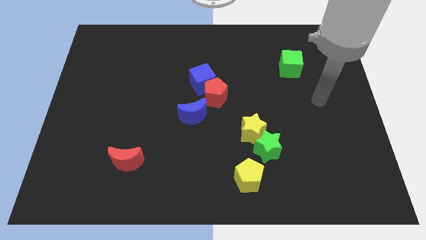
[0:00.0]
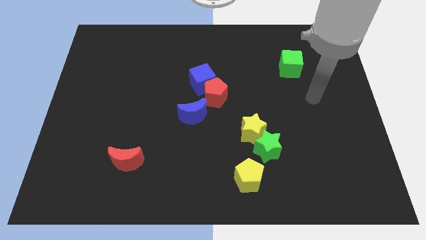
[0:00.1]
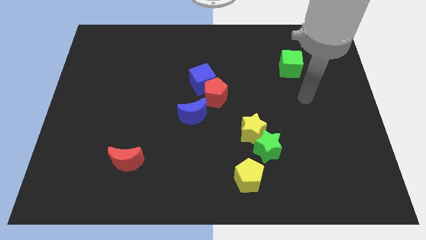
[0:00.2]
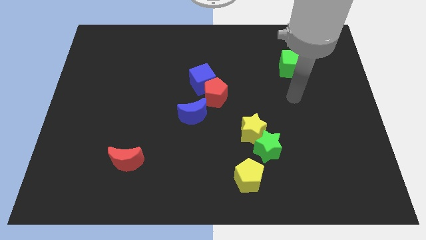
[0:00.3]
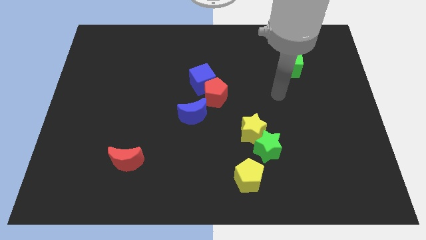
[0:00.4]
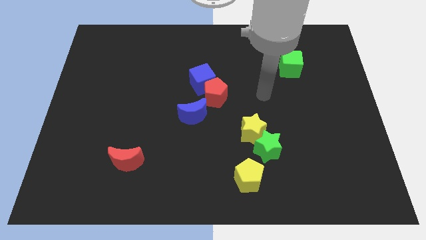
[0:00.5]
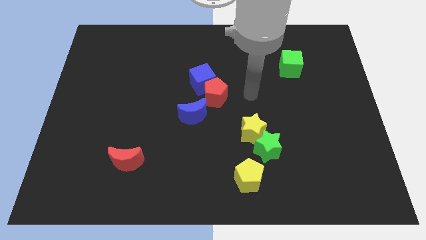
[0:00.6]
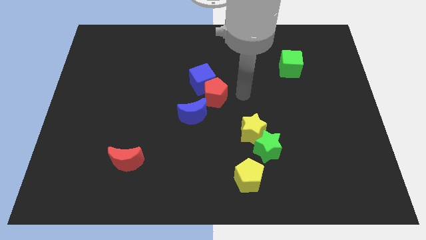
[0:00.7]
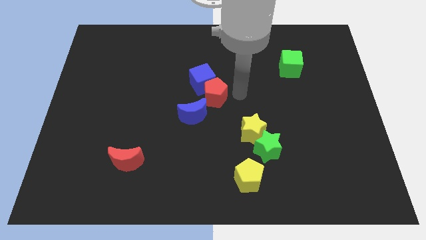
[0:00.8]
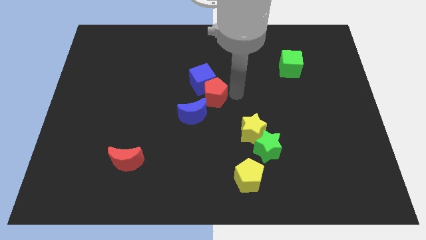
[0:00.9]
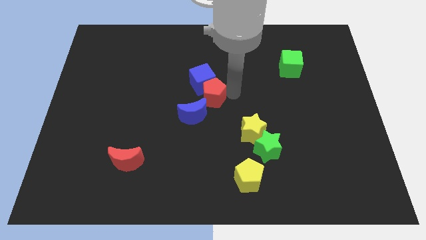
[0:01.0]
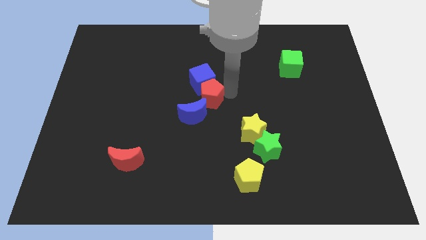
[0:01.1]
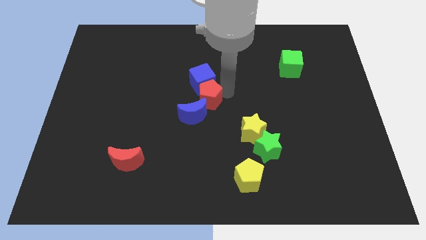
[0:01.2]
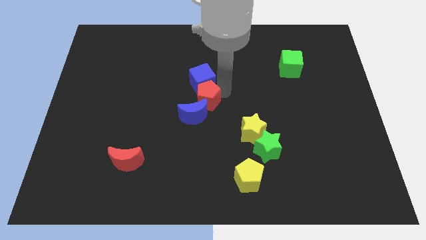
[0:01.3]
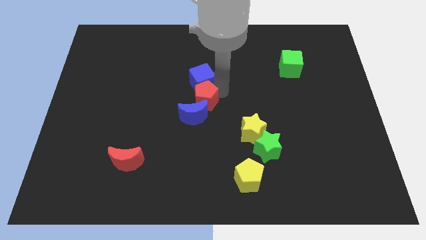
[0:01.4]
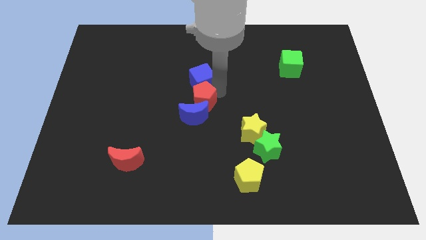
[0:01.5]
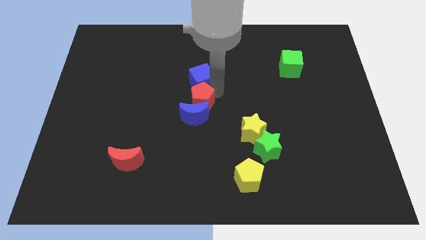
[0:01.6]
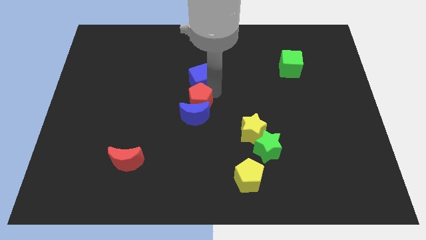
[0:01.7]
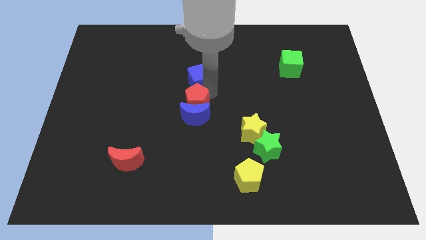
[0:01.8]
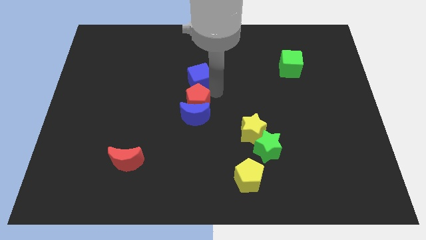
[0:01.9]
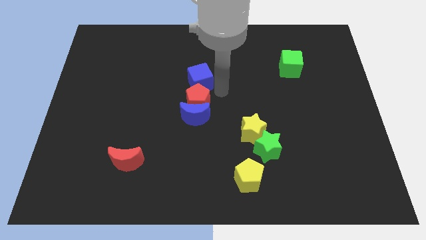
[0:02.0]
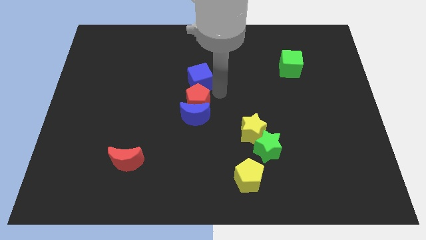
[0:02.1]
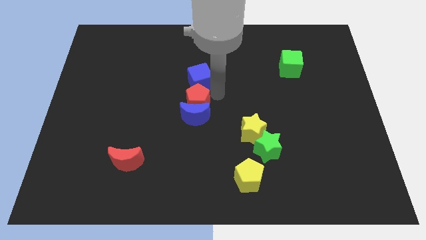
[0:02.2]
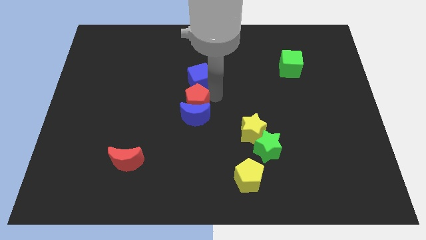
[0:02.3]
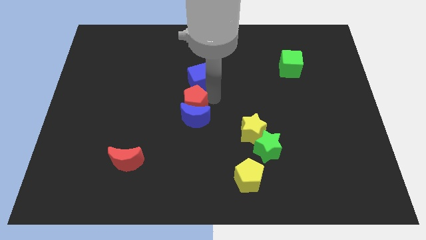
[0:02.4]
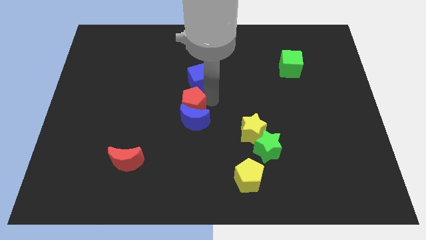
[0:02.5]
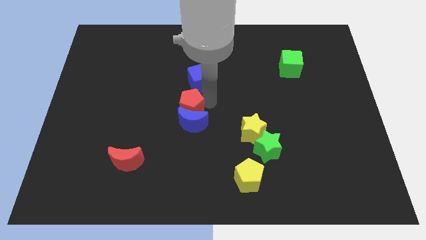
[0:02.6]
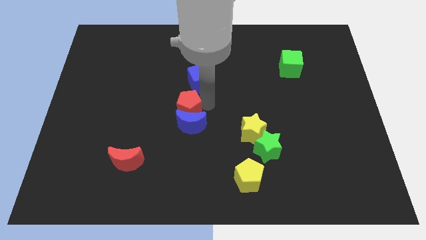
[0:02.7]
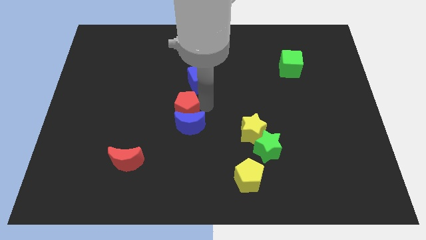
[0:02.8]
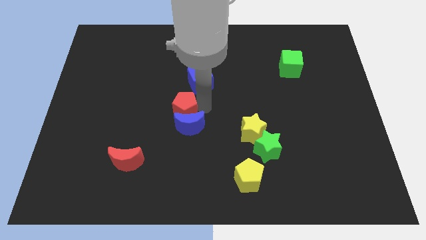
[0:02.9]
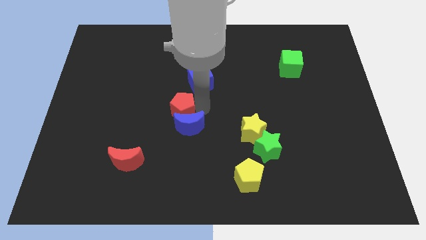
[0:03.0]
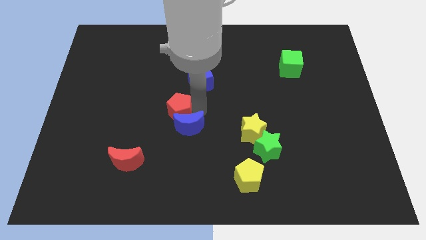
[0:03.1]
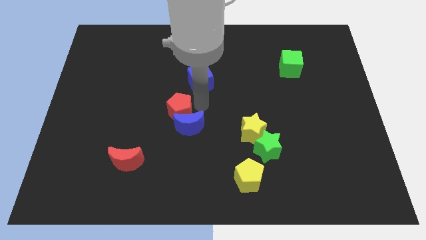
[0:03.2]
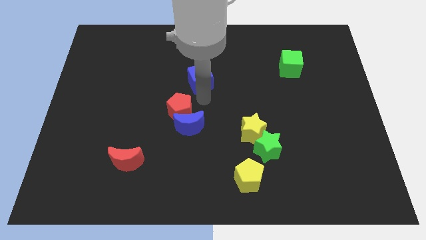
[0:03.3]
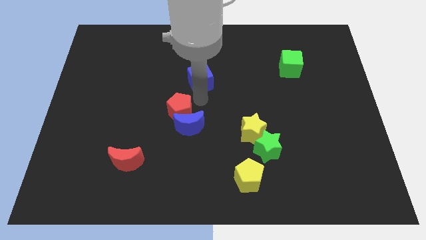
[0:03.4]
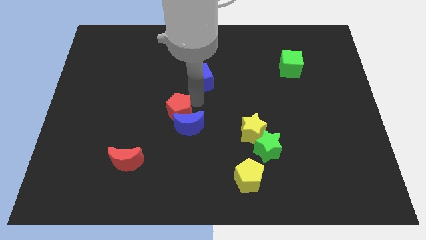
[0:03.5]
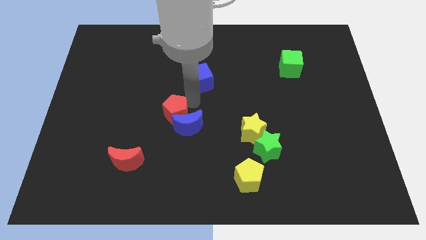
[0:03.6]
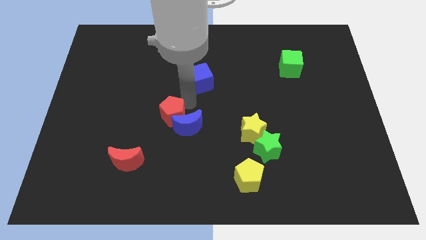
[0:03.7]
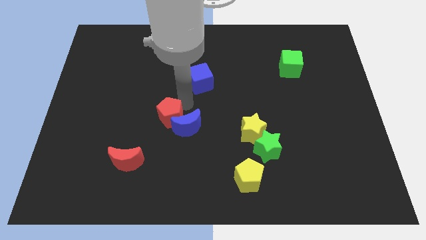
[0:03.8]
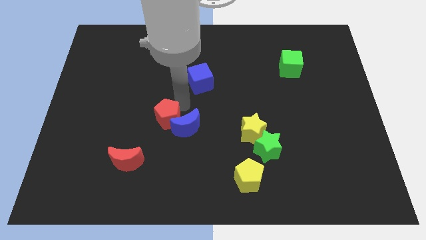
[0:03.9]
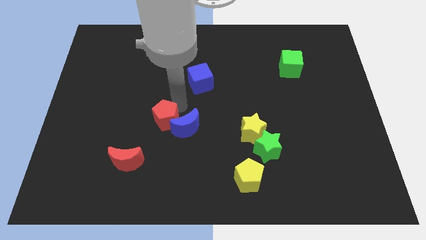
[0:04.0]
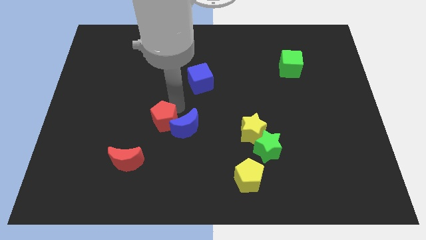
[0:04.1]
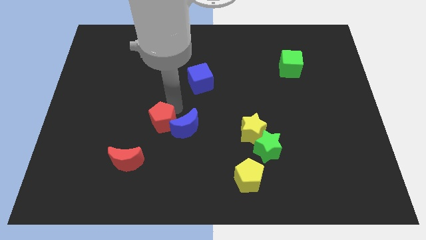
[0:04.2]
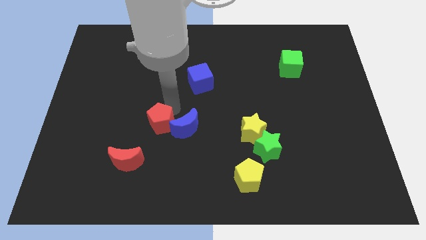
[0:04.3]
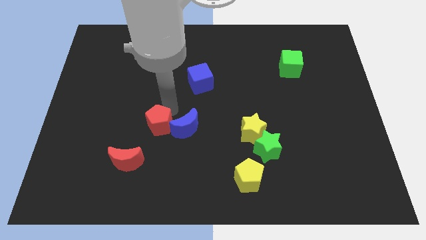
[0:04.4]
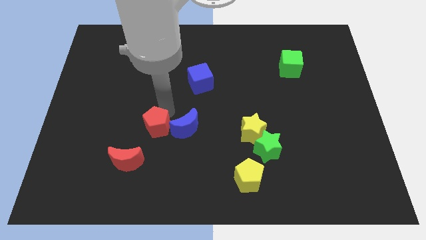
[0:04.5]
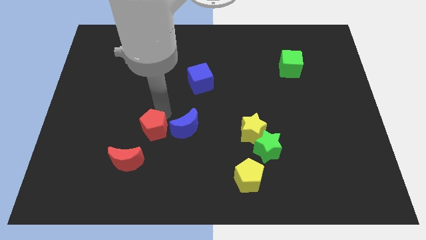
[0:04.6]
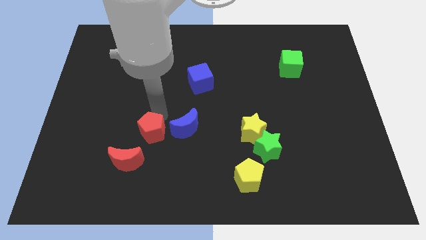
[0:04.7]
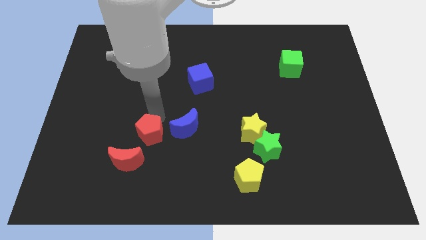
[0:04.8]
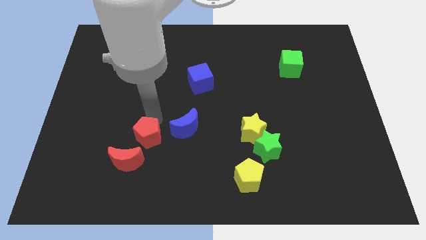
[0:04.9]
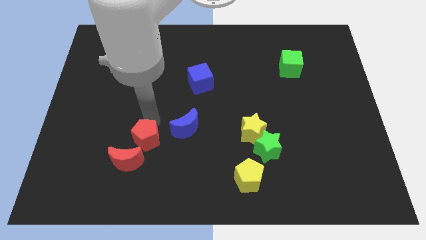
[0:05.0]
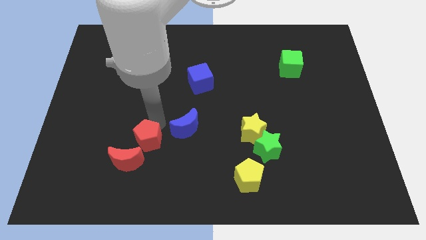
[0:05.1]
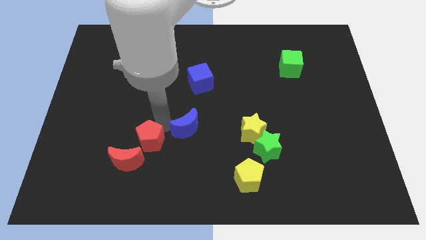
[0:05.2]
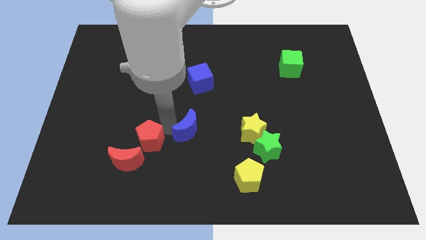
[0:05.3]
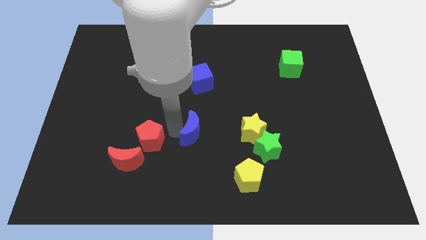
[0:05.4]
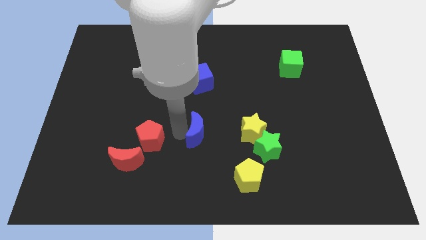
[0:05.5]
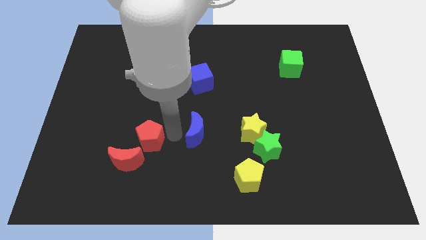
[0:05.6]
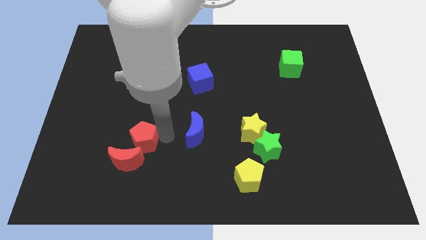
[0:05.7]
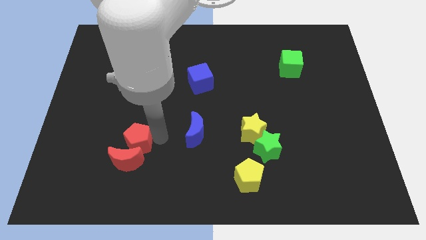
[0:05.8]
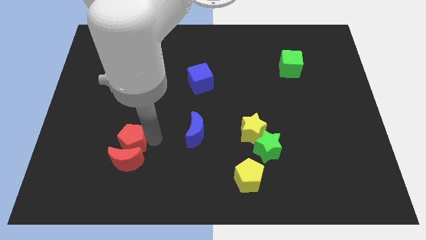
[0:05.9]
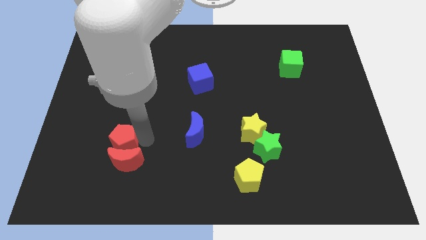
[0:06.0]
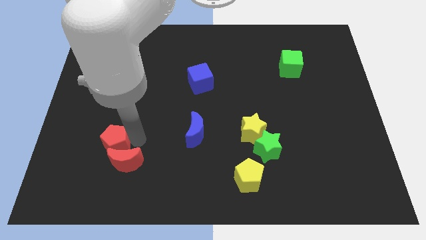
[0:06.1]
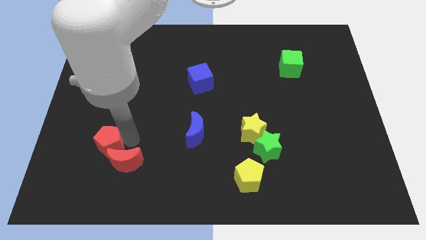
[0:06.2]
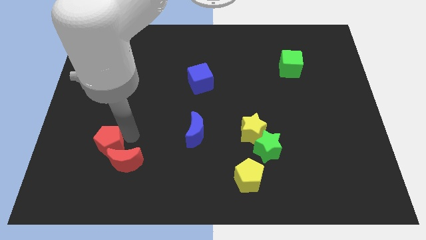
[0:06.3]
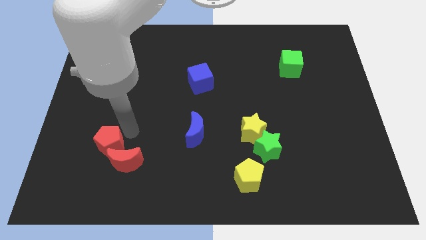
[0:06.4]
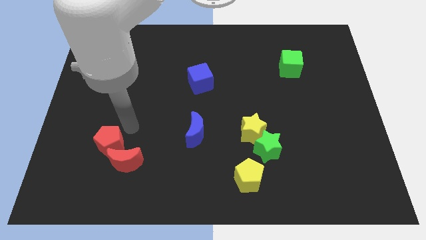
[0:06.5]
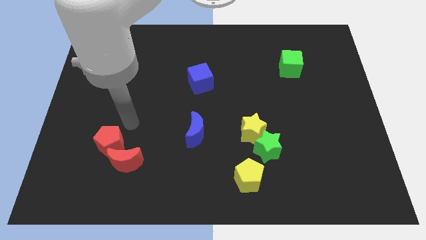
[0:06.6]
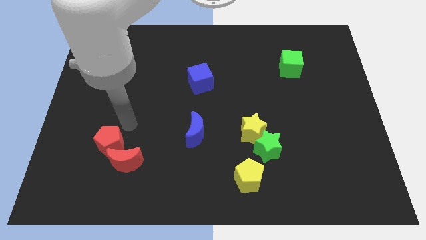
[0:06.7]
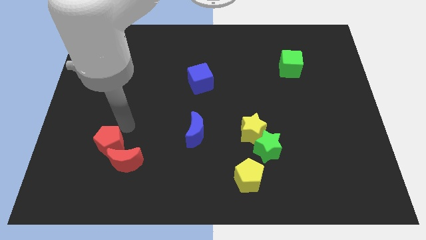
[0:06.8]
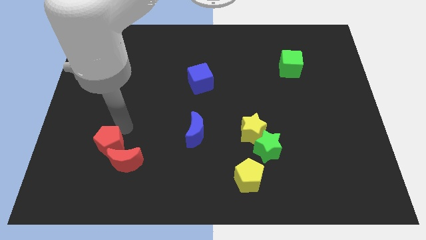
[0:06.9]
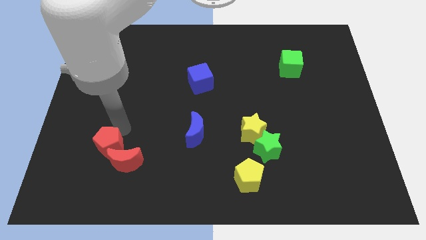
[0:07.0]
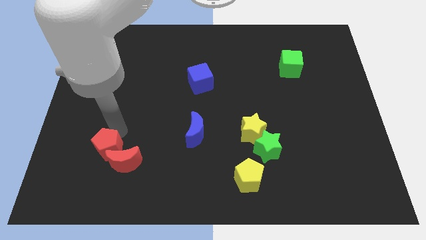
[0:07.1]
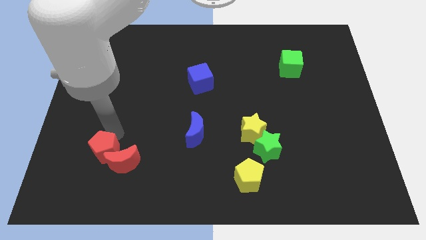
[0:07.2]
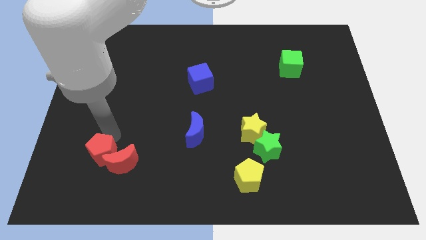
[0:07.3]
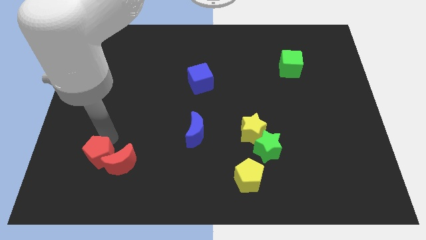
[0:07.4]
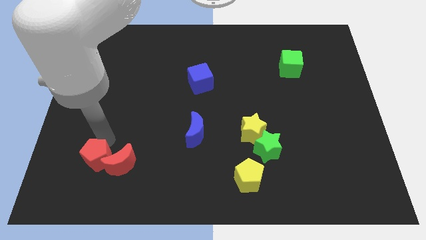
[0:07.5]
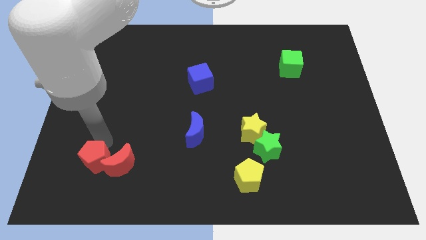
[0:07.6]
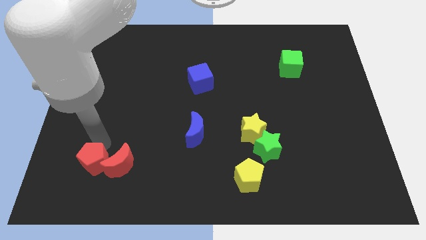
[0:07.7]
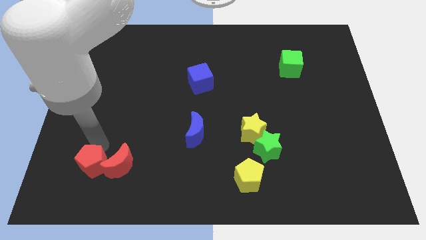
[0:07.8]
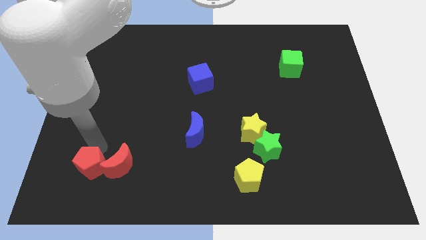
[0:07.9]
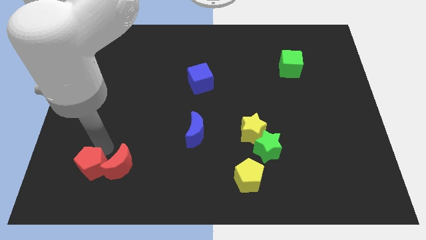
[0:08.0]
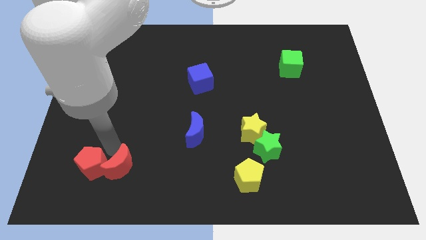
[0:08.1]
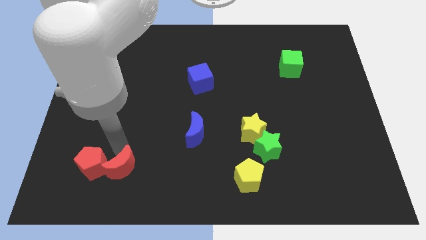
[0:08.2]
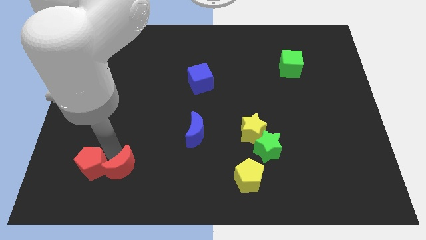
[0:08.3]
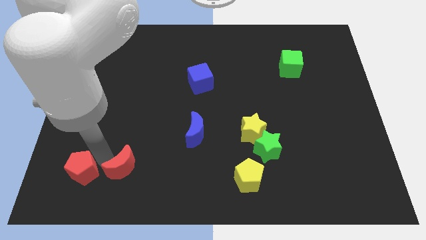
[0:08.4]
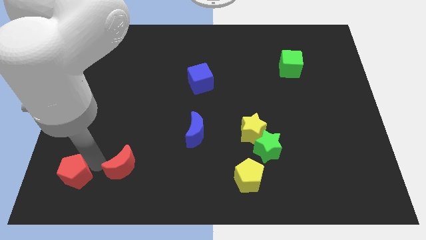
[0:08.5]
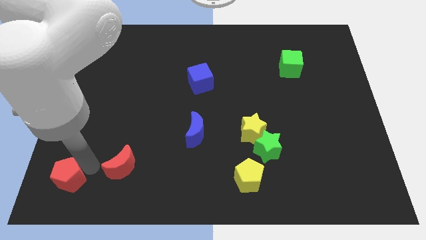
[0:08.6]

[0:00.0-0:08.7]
push the red pentagon to the bottom left corner
